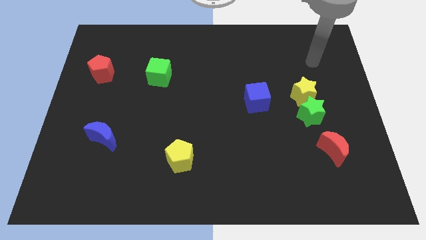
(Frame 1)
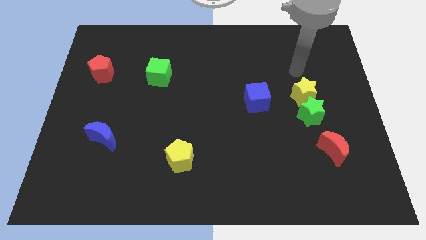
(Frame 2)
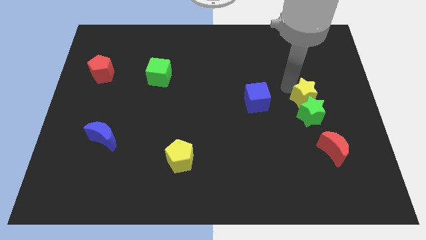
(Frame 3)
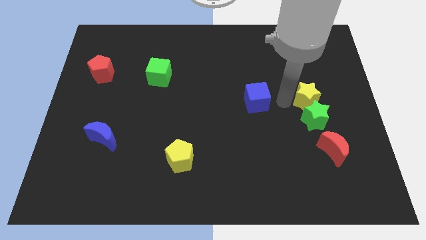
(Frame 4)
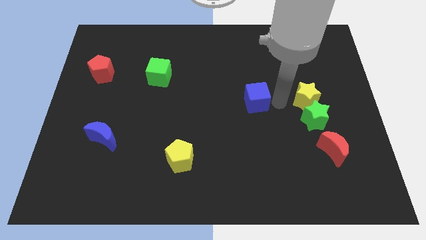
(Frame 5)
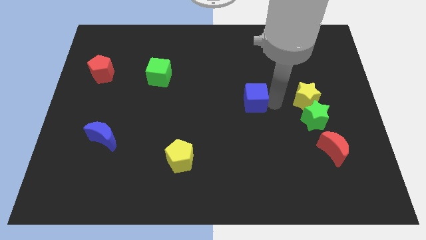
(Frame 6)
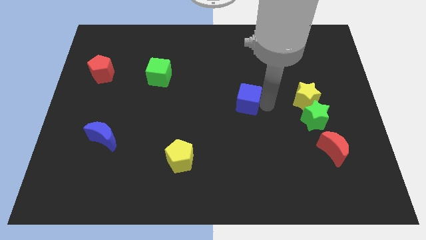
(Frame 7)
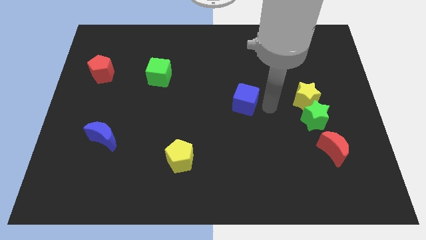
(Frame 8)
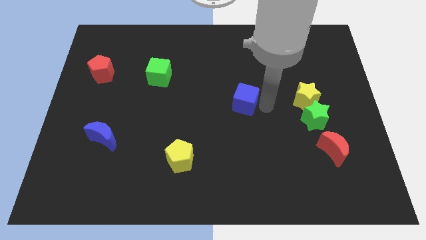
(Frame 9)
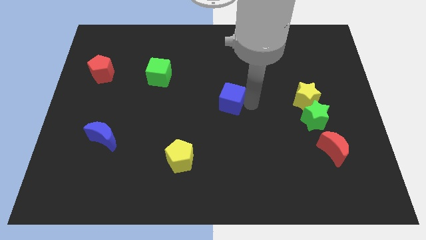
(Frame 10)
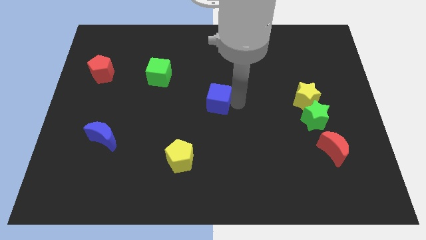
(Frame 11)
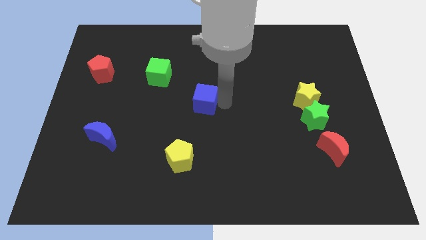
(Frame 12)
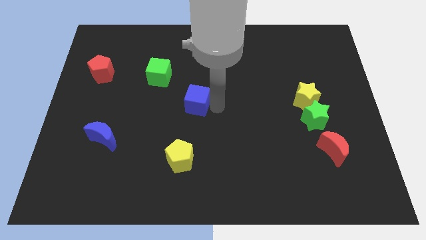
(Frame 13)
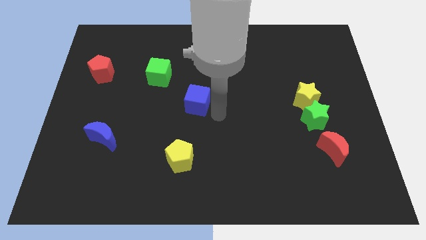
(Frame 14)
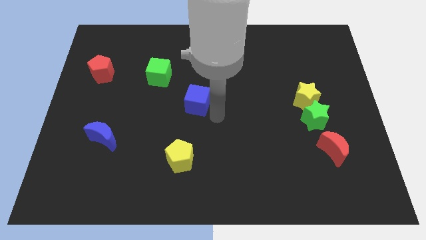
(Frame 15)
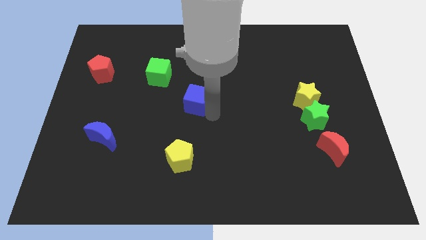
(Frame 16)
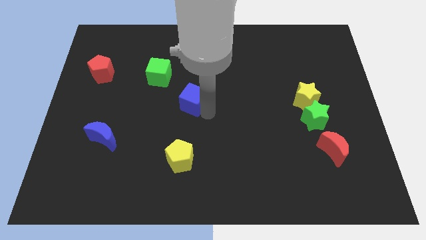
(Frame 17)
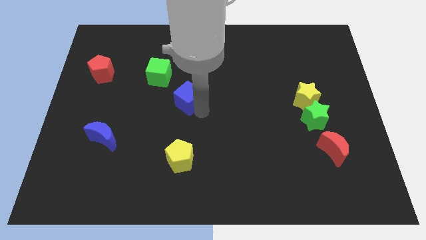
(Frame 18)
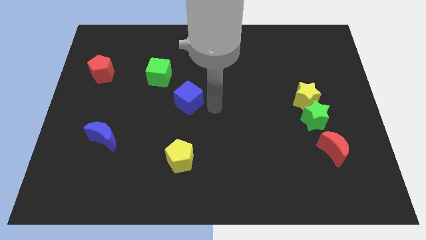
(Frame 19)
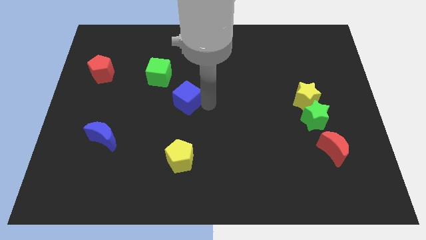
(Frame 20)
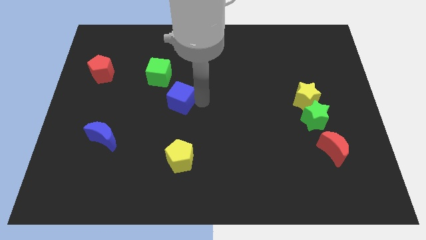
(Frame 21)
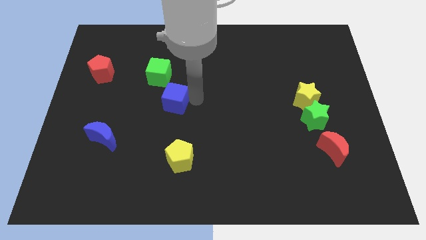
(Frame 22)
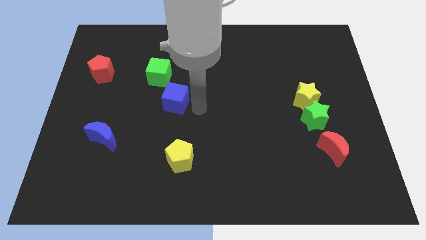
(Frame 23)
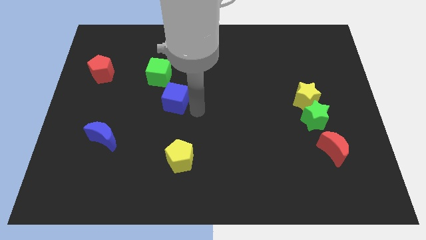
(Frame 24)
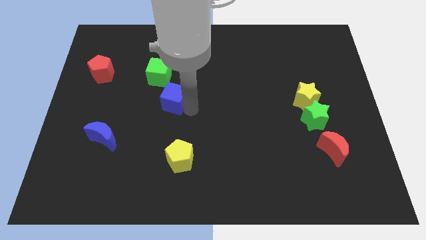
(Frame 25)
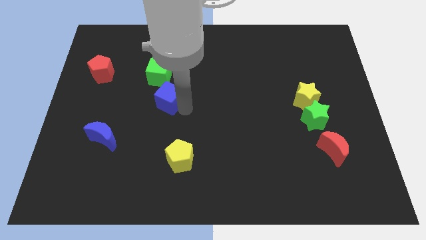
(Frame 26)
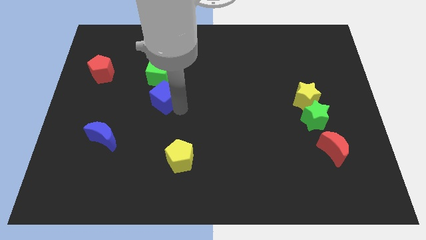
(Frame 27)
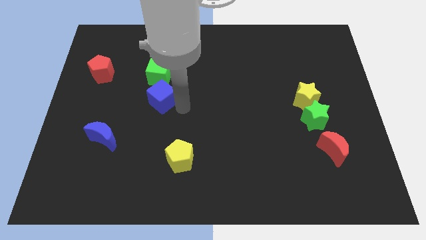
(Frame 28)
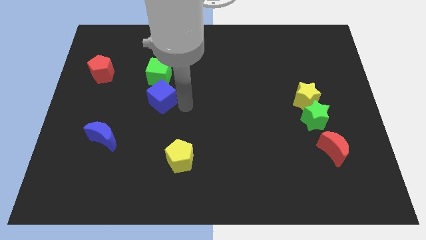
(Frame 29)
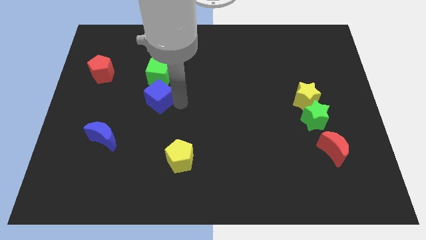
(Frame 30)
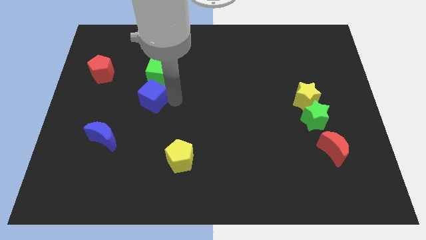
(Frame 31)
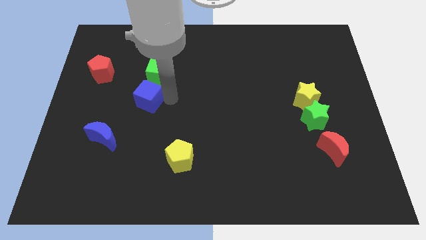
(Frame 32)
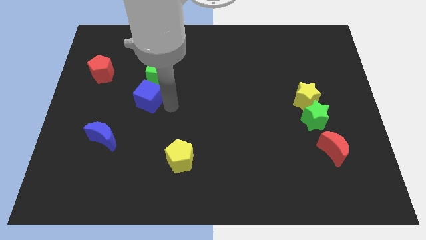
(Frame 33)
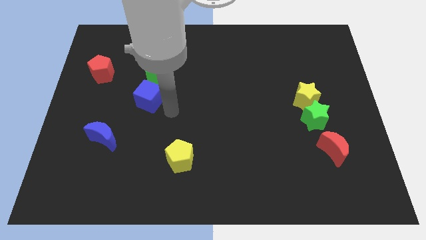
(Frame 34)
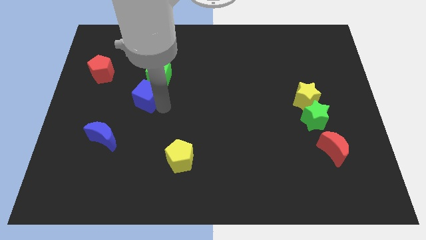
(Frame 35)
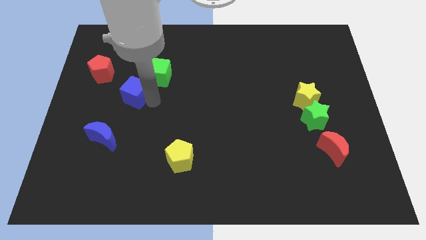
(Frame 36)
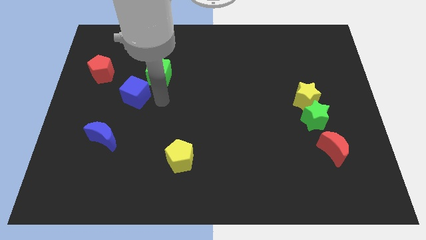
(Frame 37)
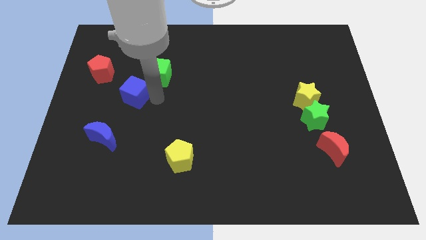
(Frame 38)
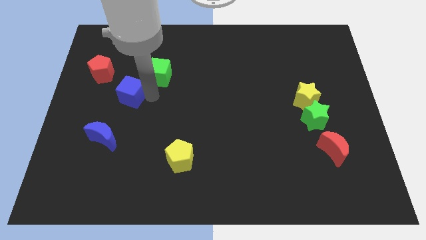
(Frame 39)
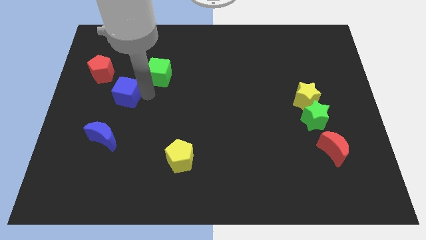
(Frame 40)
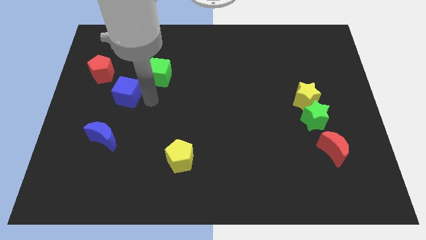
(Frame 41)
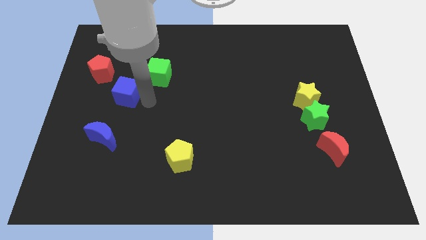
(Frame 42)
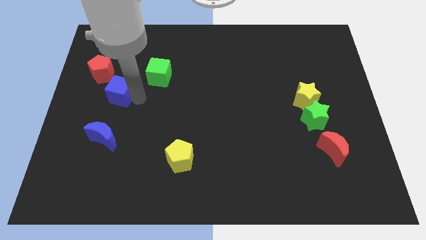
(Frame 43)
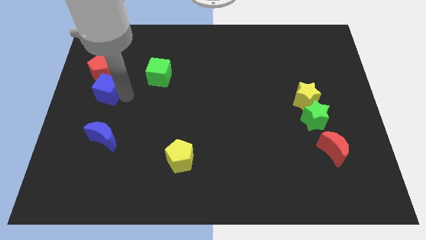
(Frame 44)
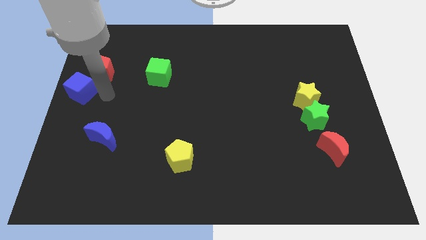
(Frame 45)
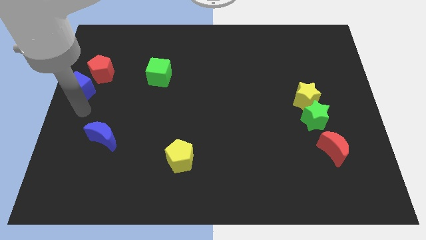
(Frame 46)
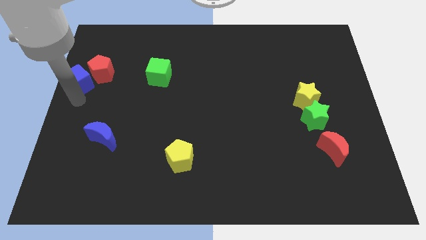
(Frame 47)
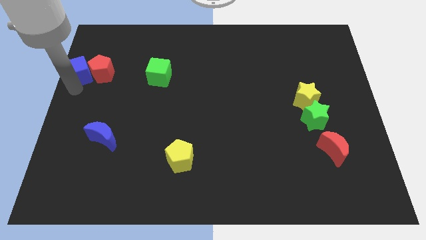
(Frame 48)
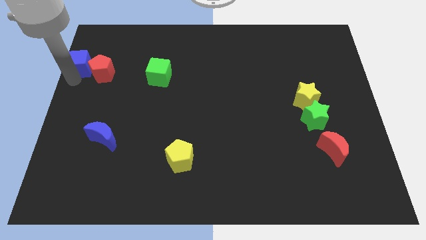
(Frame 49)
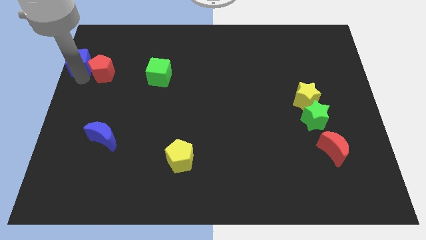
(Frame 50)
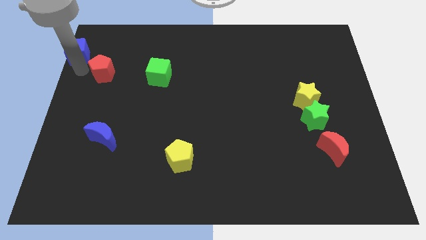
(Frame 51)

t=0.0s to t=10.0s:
push the blue cube to the top left of the board

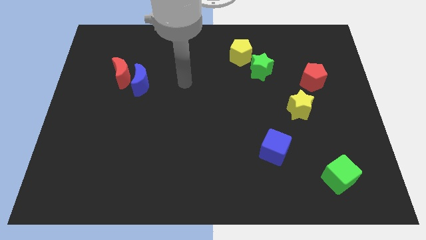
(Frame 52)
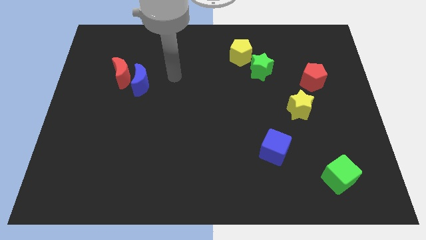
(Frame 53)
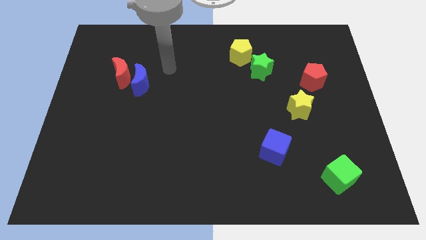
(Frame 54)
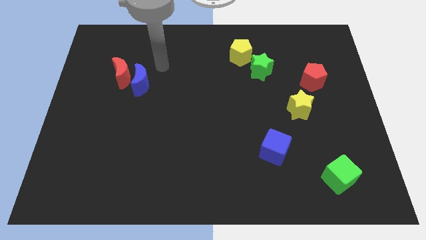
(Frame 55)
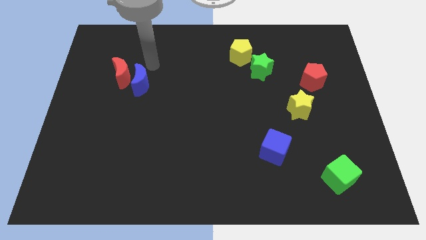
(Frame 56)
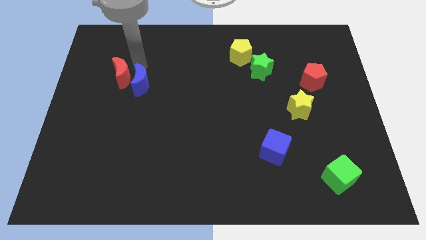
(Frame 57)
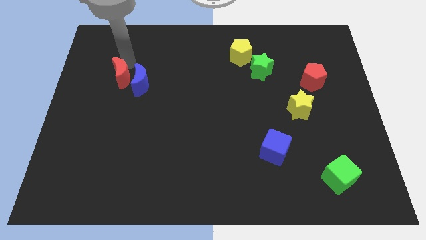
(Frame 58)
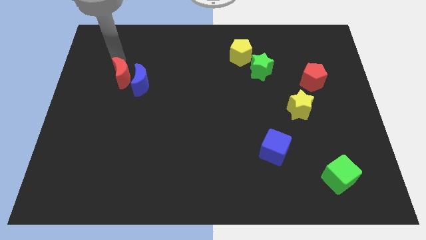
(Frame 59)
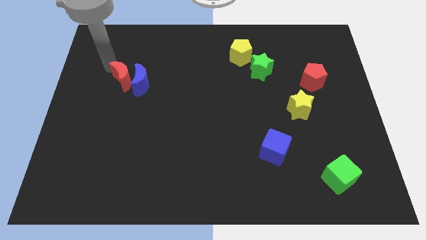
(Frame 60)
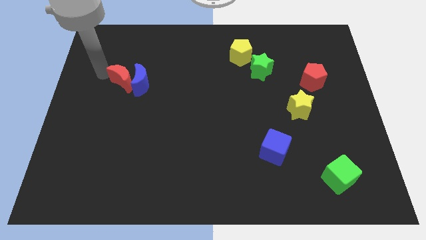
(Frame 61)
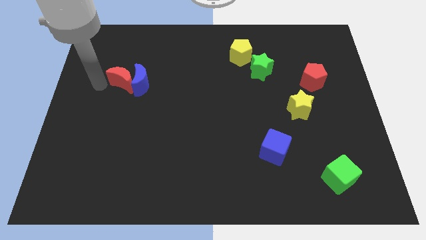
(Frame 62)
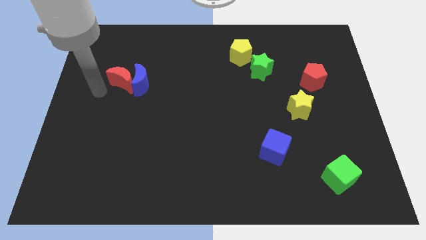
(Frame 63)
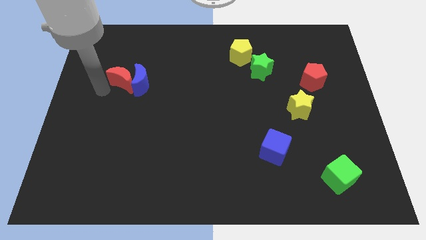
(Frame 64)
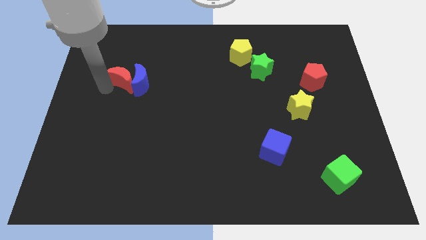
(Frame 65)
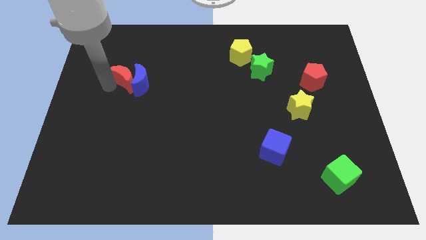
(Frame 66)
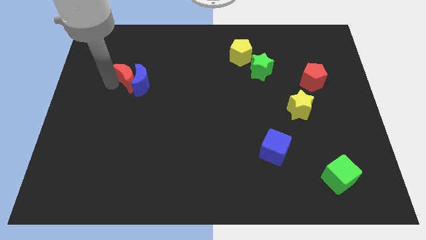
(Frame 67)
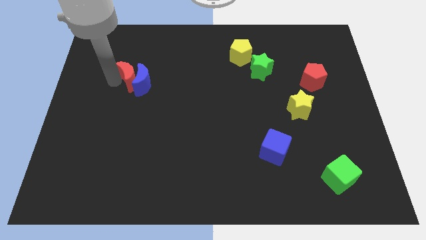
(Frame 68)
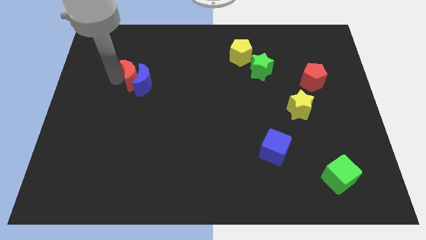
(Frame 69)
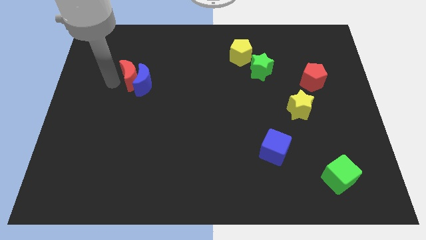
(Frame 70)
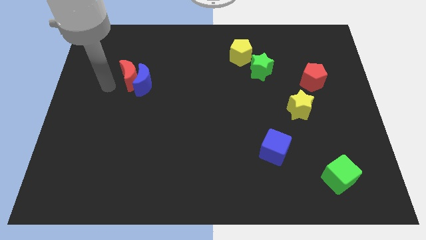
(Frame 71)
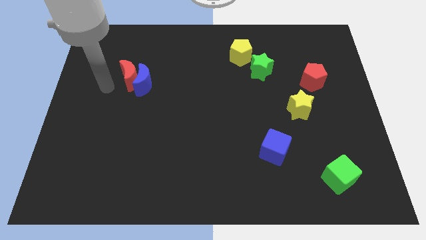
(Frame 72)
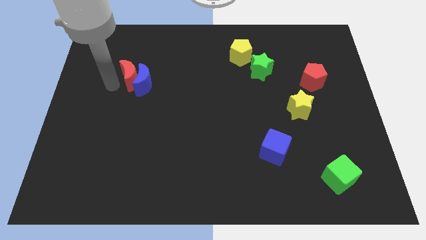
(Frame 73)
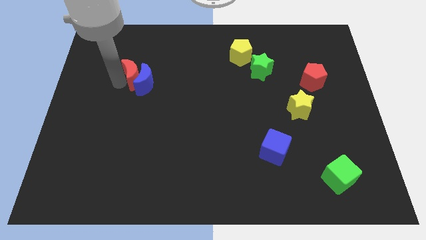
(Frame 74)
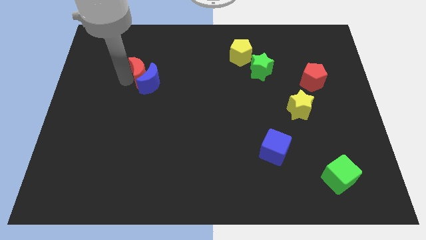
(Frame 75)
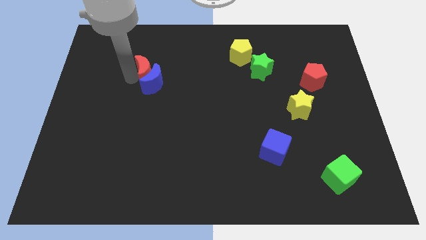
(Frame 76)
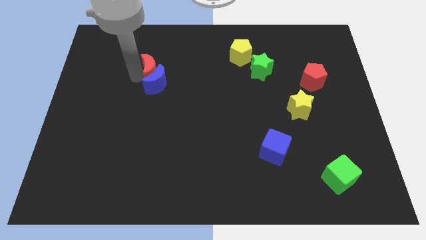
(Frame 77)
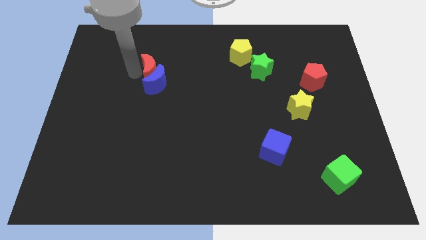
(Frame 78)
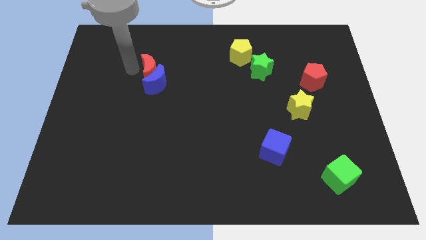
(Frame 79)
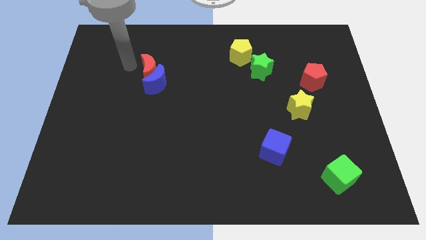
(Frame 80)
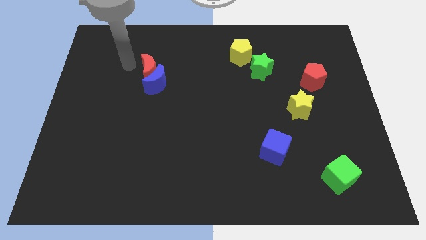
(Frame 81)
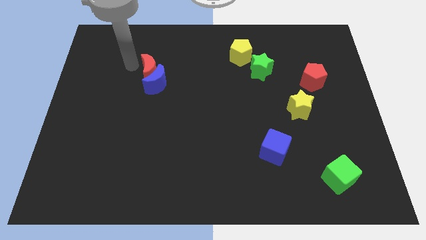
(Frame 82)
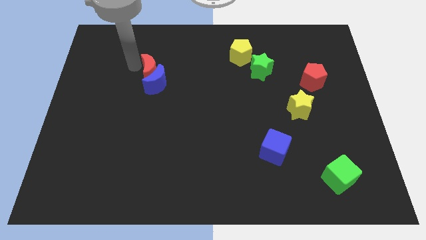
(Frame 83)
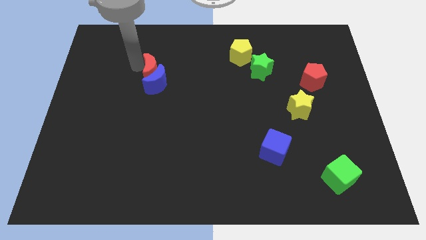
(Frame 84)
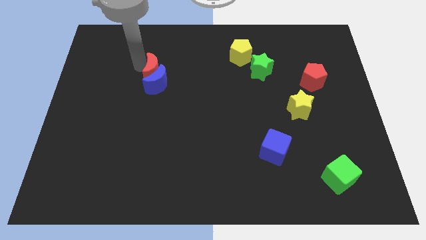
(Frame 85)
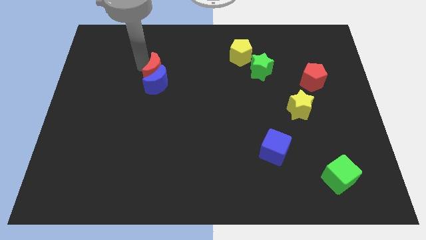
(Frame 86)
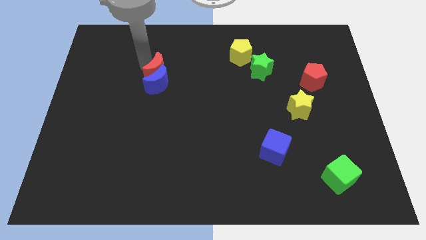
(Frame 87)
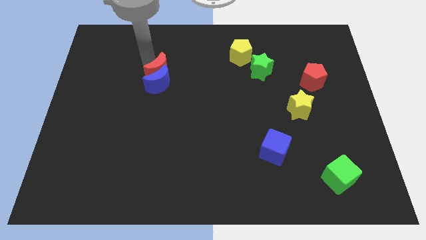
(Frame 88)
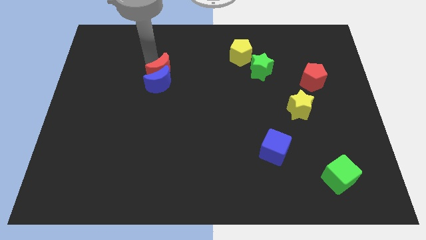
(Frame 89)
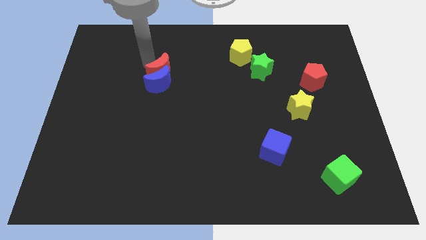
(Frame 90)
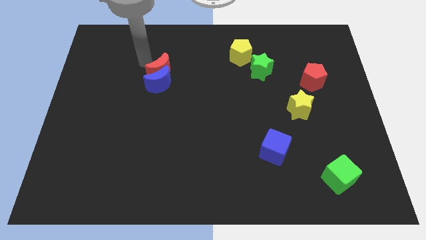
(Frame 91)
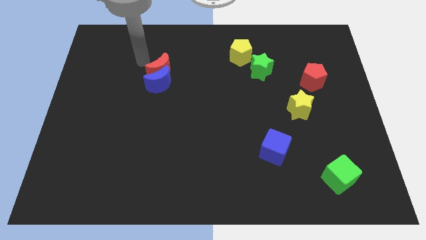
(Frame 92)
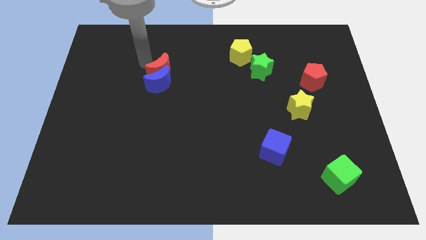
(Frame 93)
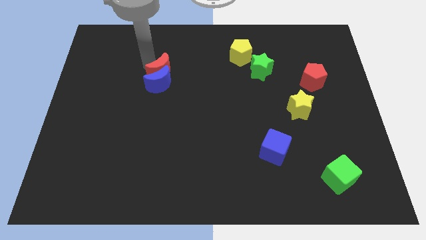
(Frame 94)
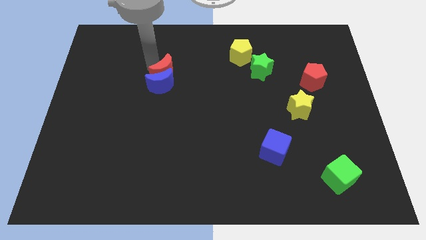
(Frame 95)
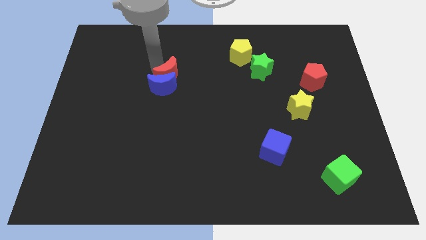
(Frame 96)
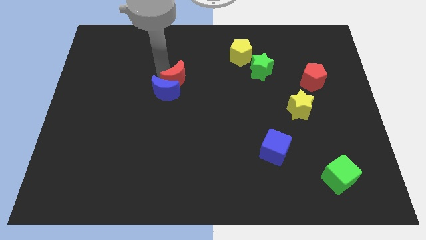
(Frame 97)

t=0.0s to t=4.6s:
push the red moon to the center
